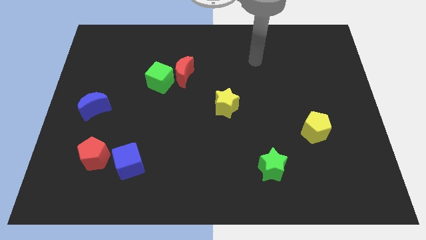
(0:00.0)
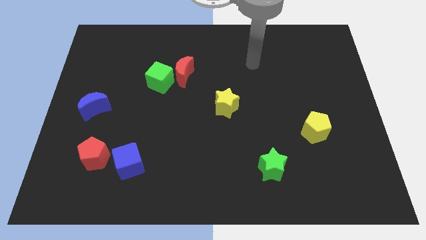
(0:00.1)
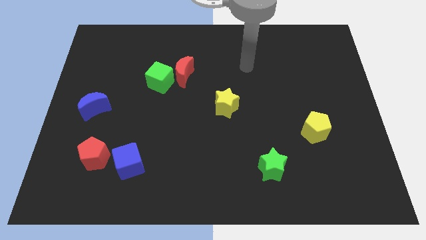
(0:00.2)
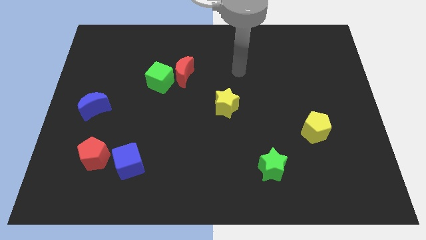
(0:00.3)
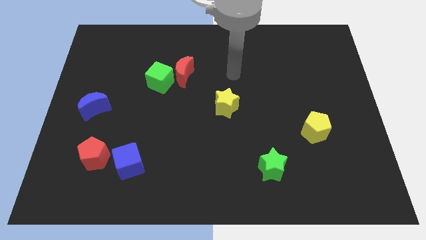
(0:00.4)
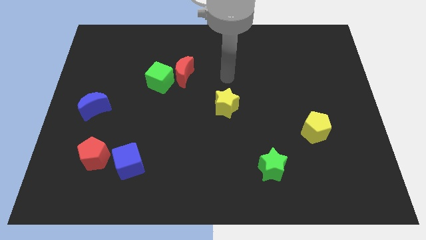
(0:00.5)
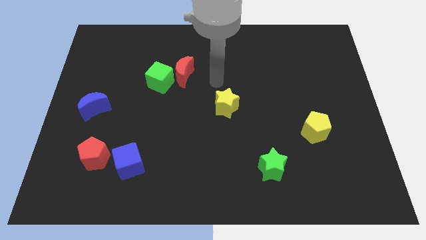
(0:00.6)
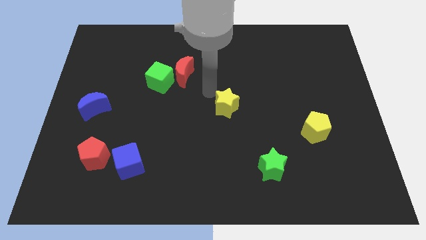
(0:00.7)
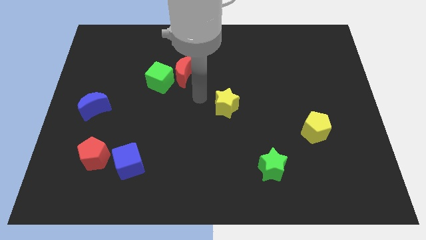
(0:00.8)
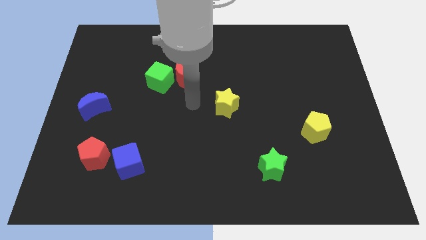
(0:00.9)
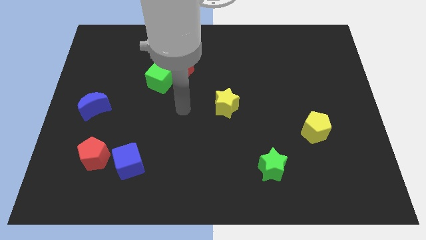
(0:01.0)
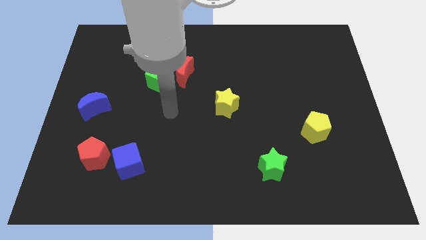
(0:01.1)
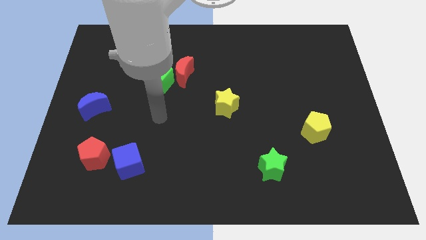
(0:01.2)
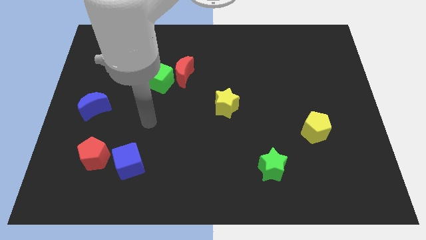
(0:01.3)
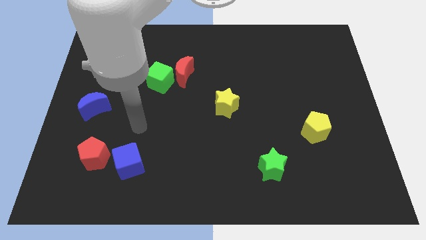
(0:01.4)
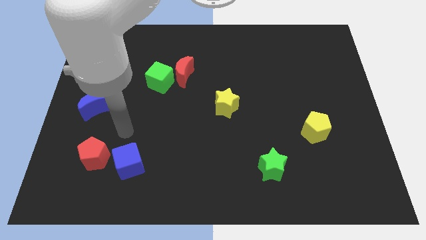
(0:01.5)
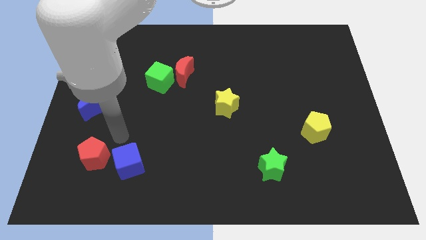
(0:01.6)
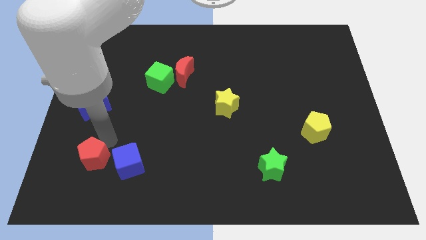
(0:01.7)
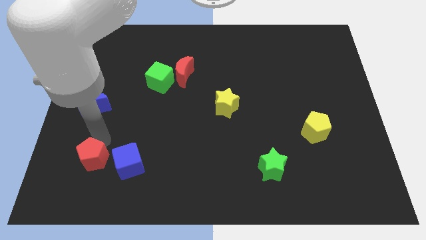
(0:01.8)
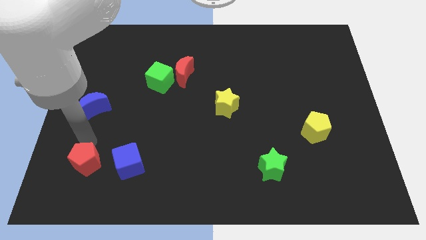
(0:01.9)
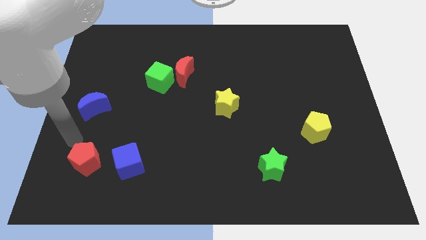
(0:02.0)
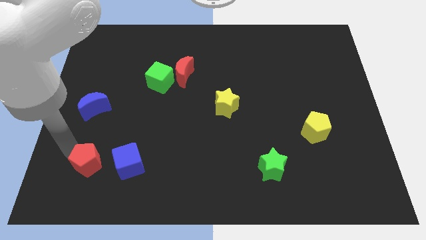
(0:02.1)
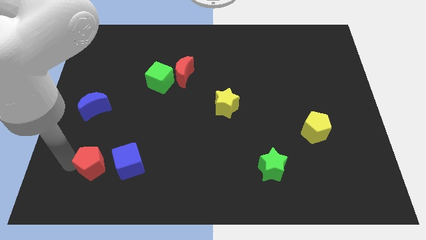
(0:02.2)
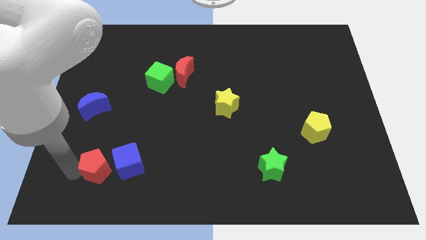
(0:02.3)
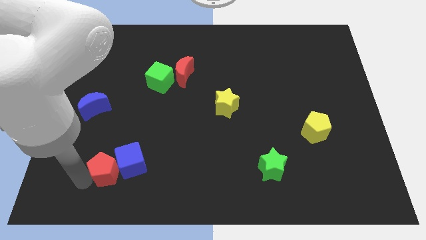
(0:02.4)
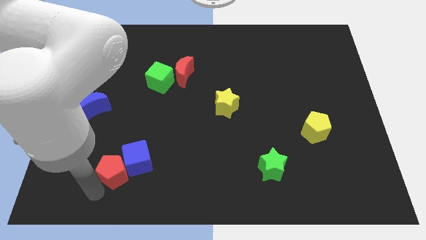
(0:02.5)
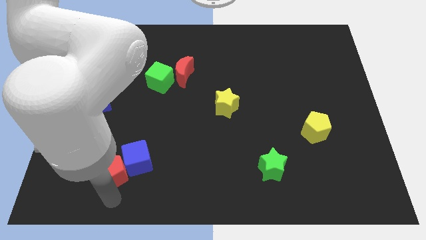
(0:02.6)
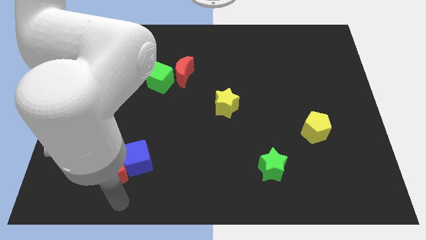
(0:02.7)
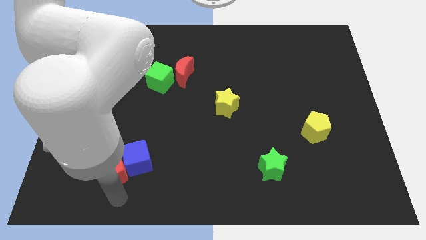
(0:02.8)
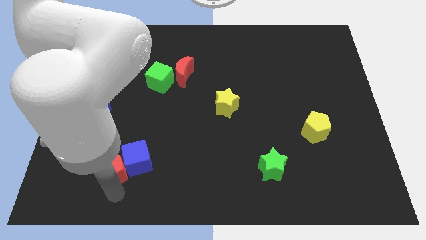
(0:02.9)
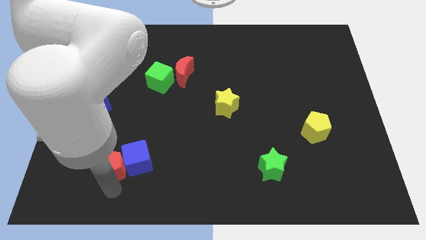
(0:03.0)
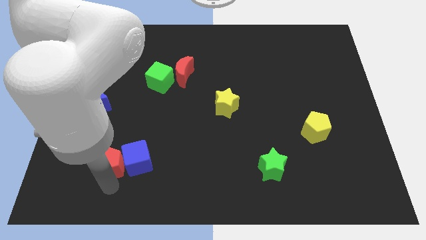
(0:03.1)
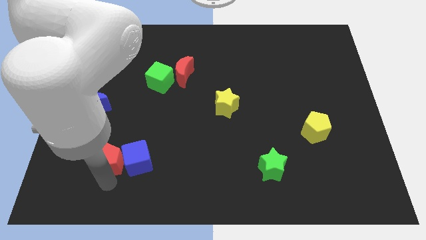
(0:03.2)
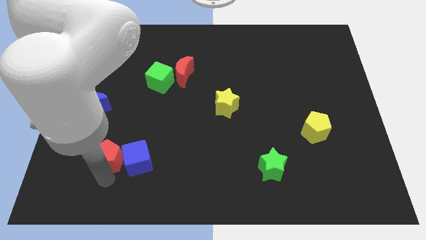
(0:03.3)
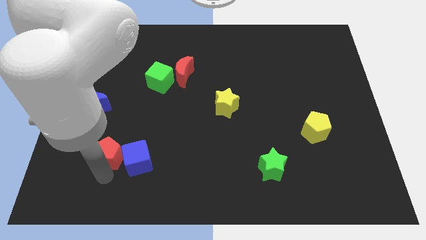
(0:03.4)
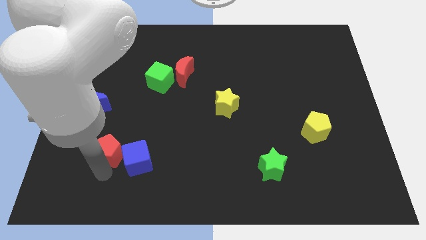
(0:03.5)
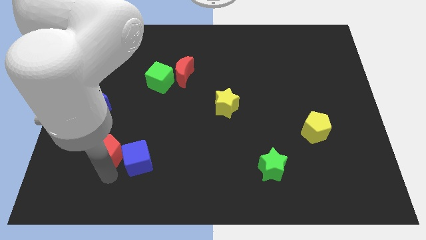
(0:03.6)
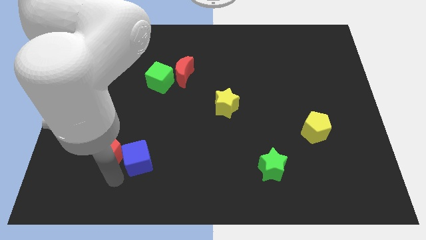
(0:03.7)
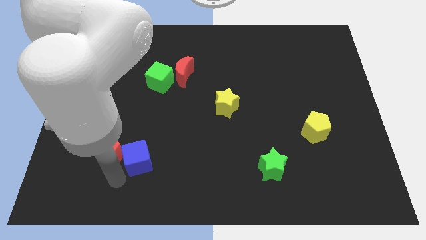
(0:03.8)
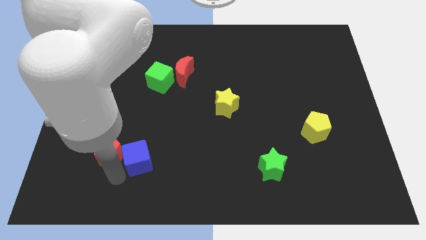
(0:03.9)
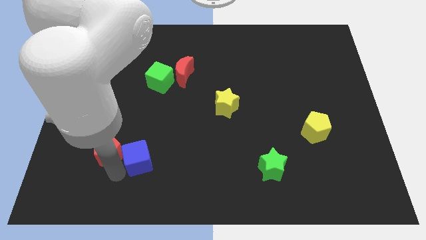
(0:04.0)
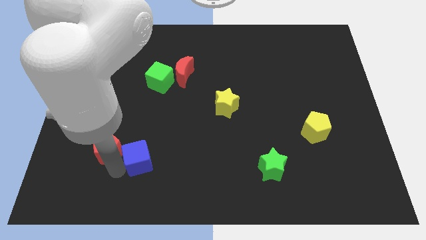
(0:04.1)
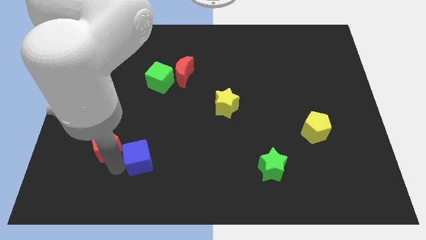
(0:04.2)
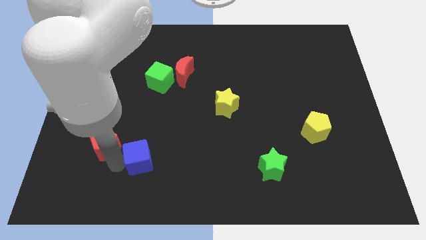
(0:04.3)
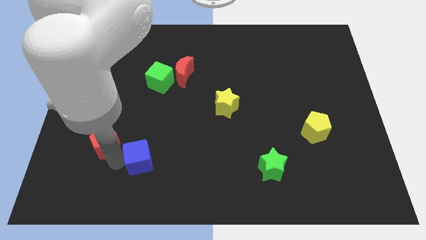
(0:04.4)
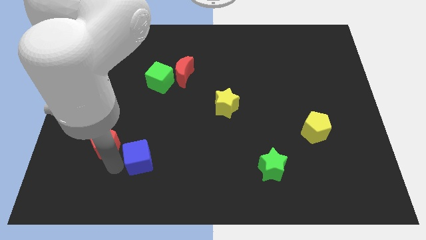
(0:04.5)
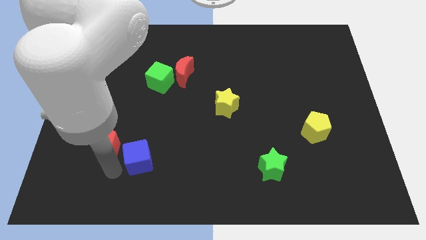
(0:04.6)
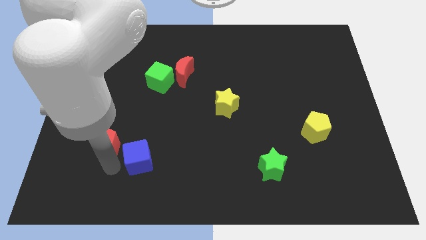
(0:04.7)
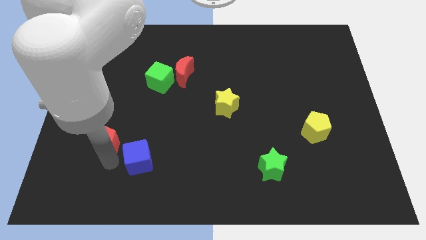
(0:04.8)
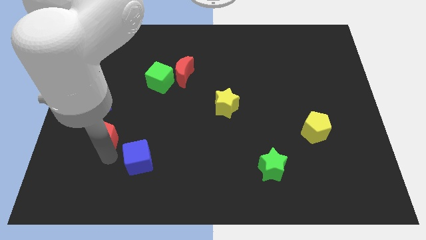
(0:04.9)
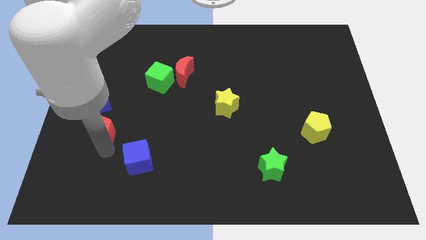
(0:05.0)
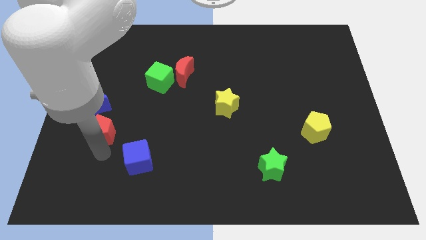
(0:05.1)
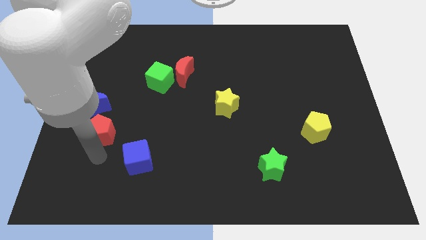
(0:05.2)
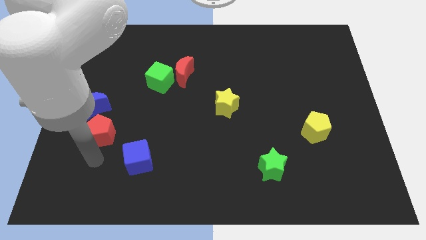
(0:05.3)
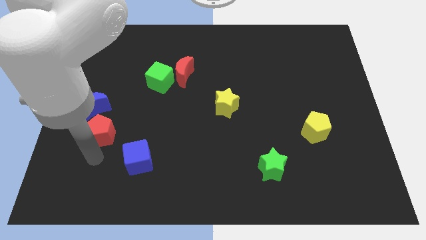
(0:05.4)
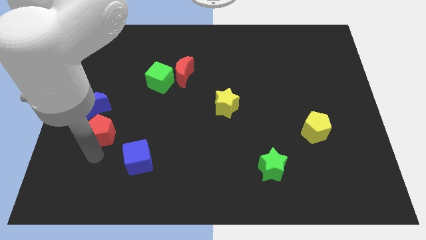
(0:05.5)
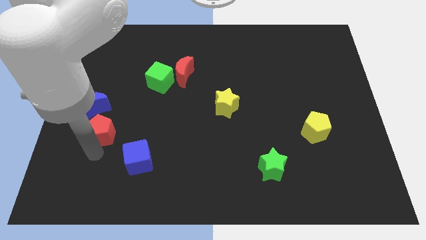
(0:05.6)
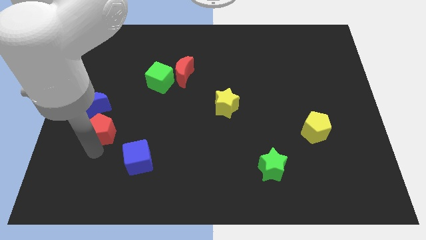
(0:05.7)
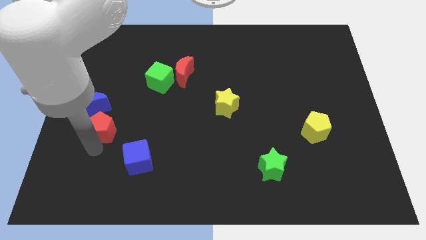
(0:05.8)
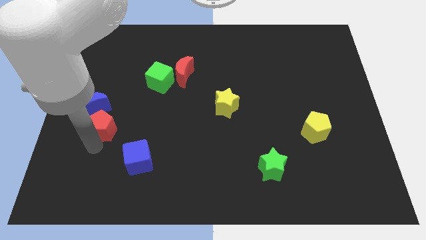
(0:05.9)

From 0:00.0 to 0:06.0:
slightly push the red pentagon up

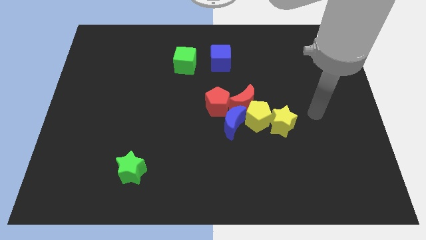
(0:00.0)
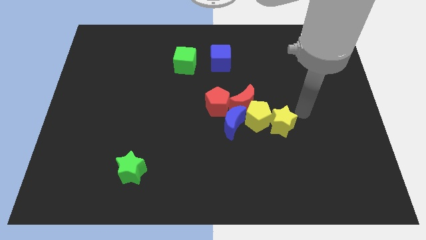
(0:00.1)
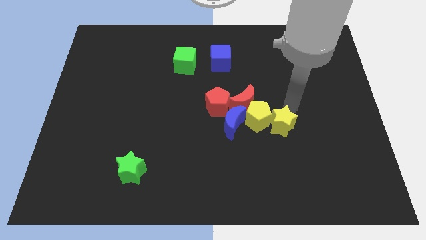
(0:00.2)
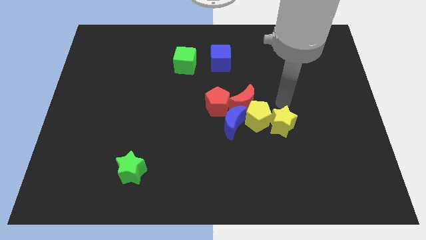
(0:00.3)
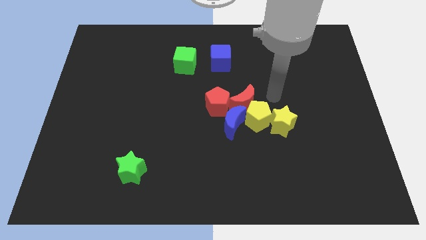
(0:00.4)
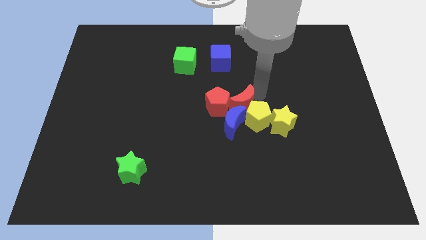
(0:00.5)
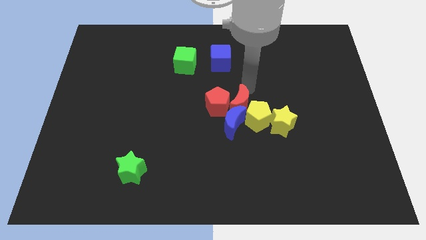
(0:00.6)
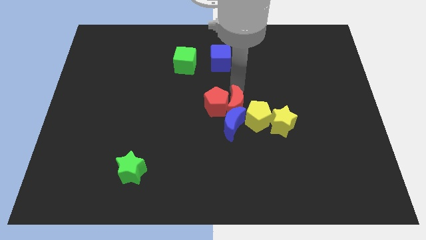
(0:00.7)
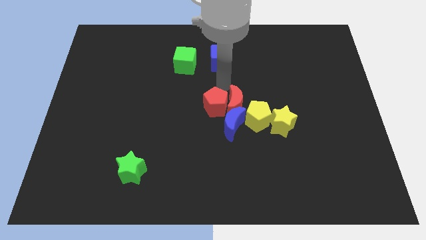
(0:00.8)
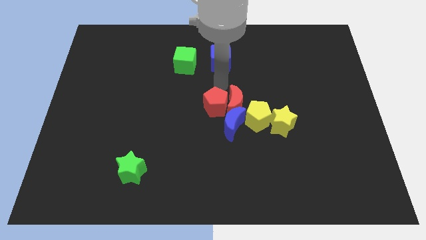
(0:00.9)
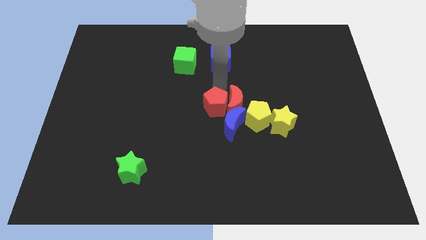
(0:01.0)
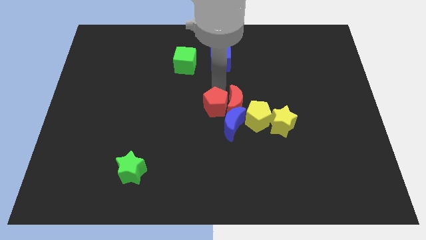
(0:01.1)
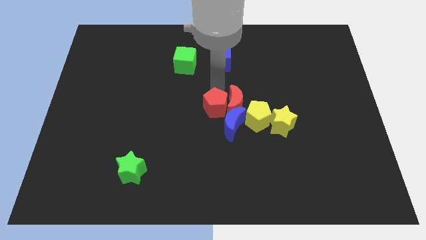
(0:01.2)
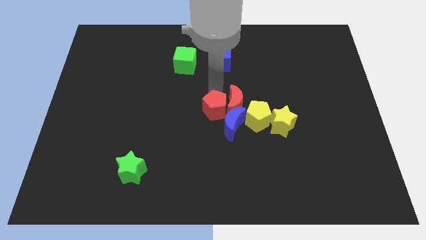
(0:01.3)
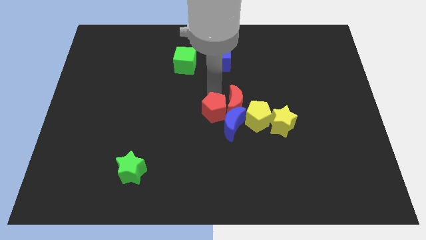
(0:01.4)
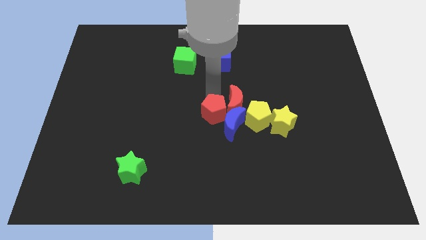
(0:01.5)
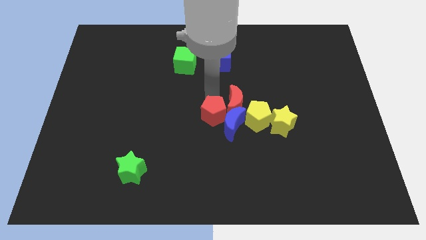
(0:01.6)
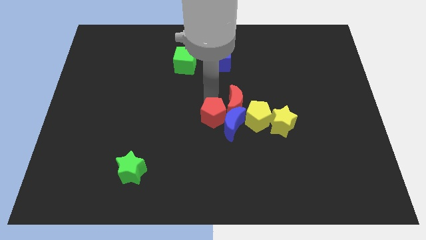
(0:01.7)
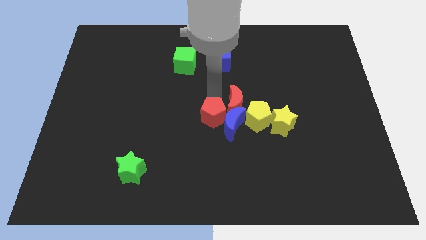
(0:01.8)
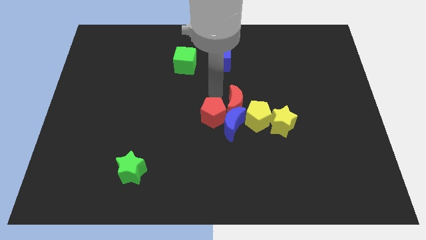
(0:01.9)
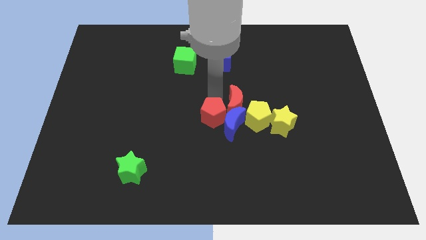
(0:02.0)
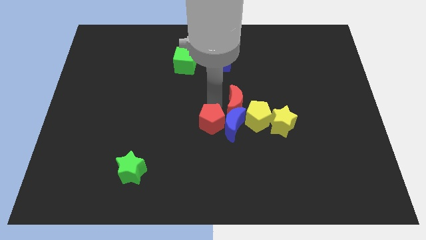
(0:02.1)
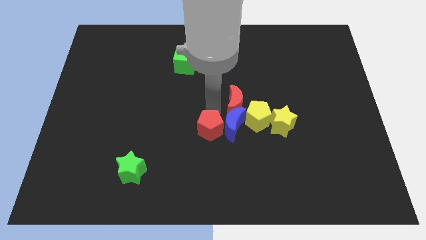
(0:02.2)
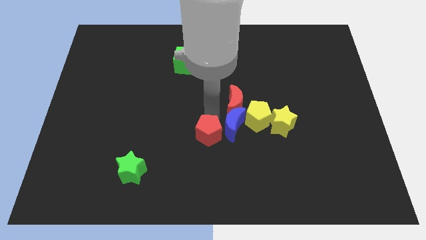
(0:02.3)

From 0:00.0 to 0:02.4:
slide the red pentagon slightly downwards
